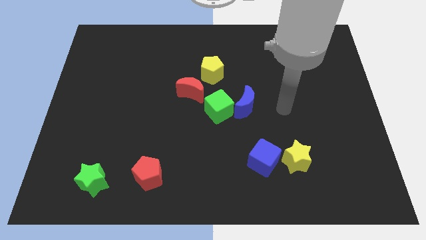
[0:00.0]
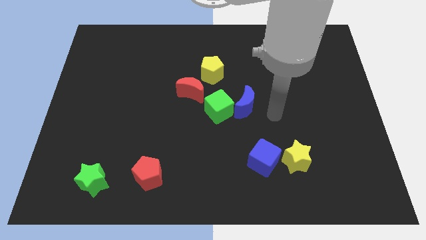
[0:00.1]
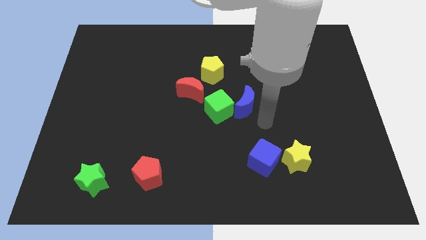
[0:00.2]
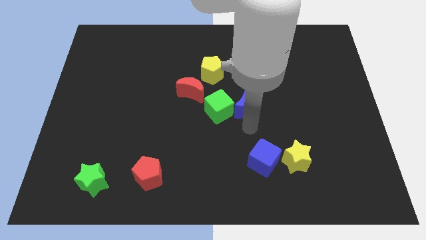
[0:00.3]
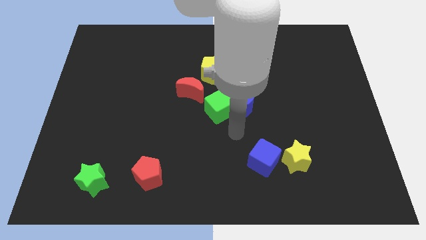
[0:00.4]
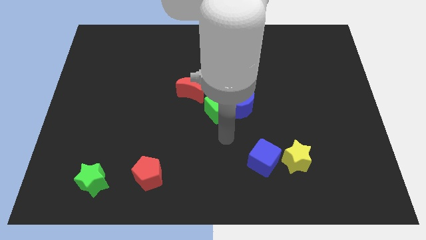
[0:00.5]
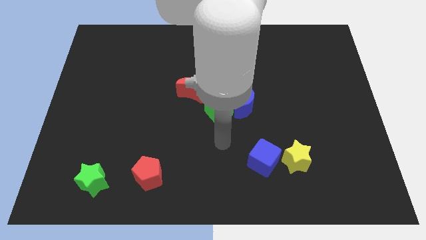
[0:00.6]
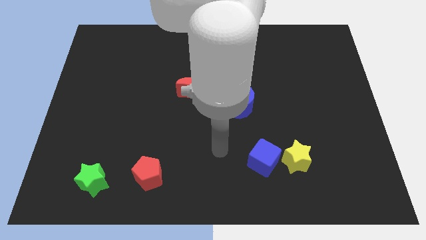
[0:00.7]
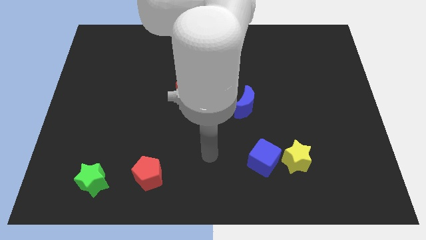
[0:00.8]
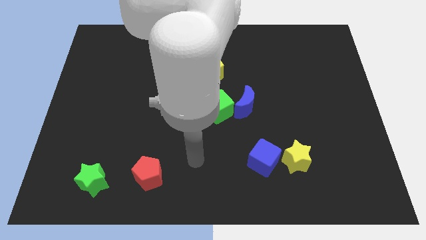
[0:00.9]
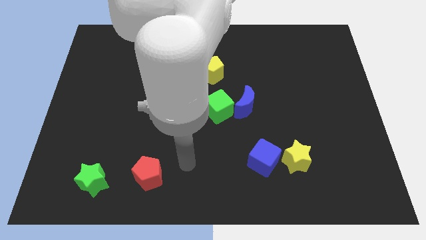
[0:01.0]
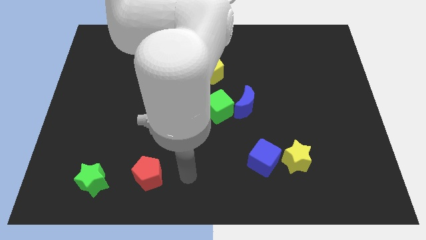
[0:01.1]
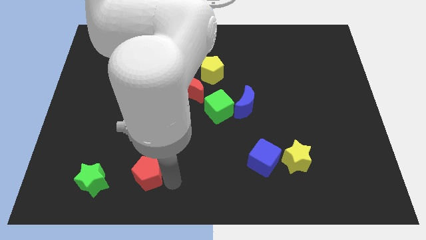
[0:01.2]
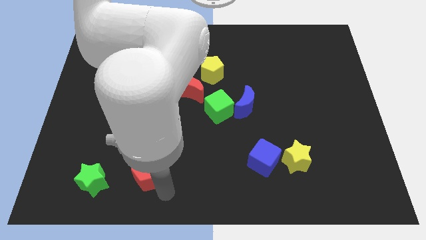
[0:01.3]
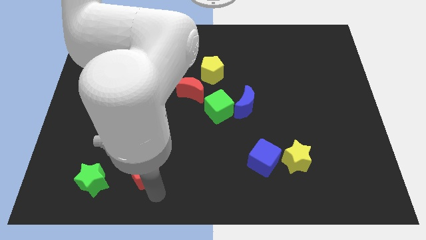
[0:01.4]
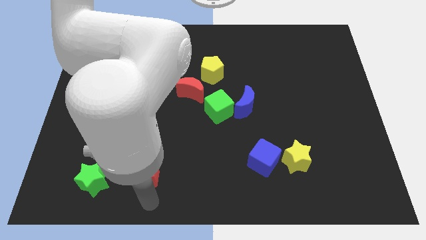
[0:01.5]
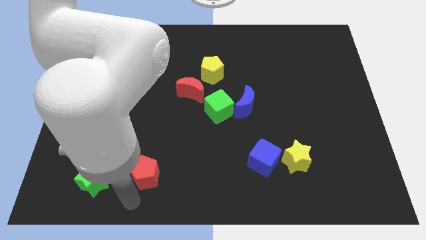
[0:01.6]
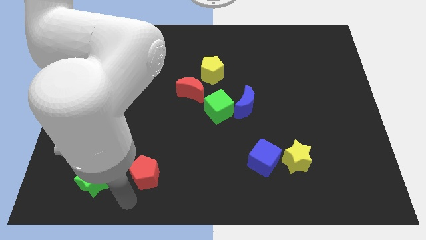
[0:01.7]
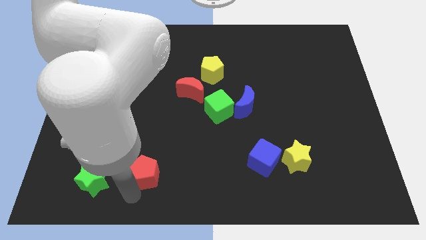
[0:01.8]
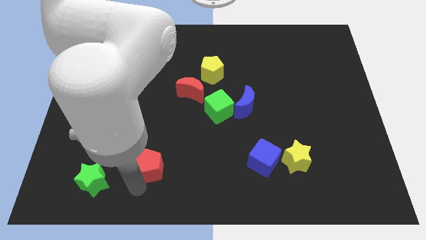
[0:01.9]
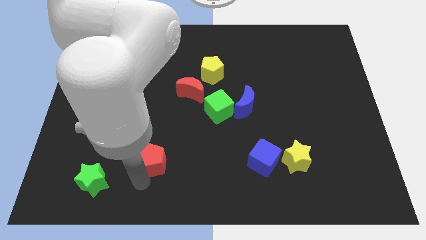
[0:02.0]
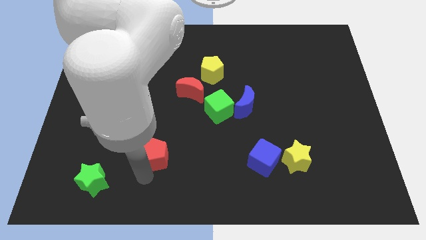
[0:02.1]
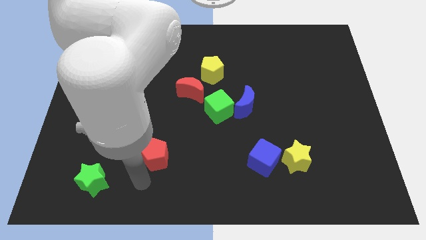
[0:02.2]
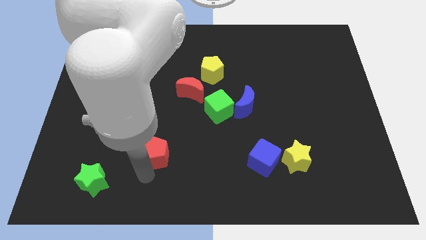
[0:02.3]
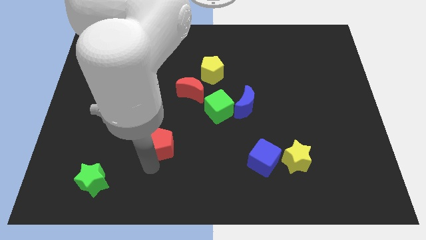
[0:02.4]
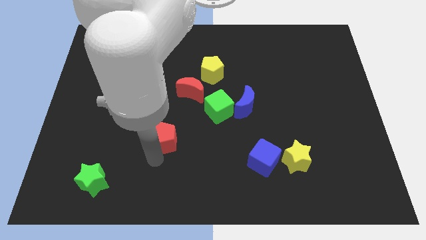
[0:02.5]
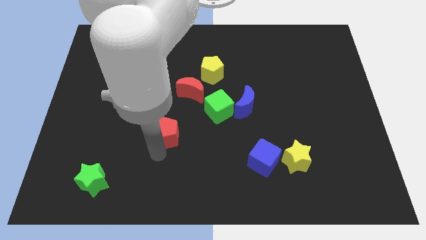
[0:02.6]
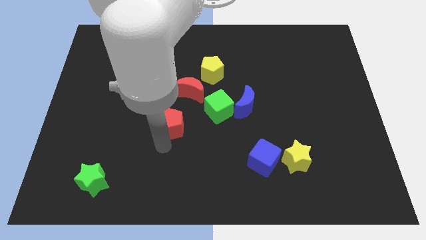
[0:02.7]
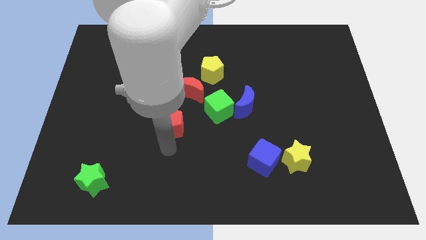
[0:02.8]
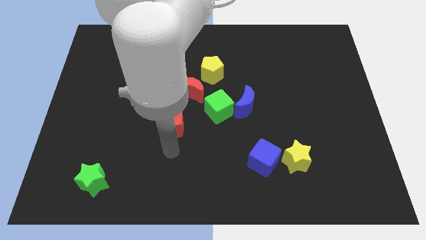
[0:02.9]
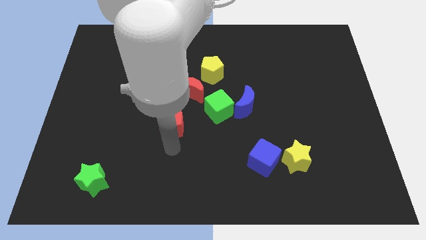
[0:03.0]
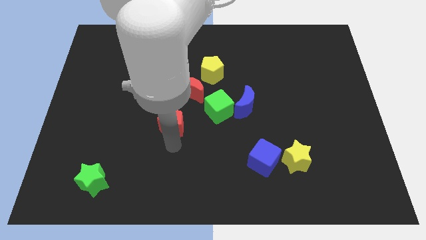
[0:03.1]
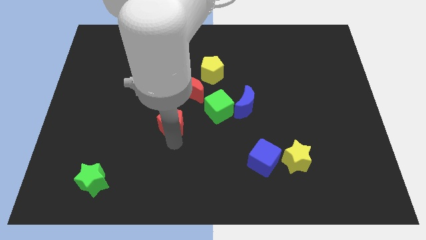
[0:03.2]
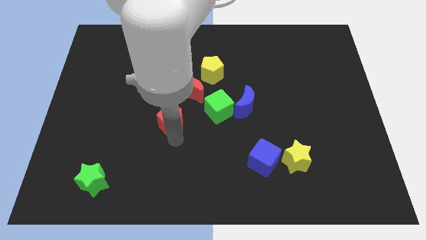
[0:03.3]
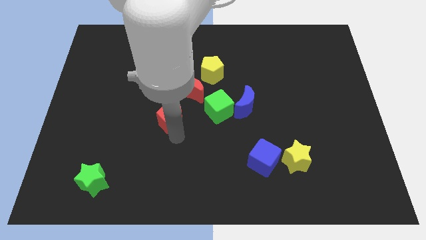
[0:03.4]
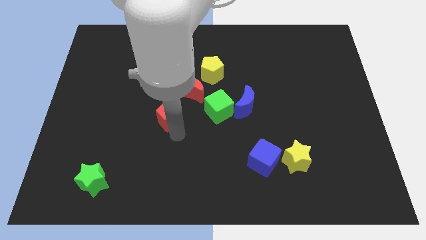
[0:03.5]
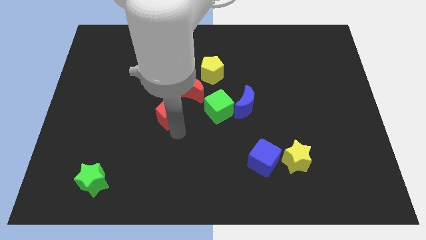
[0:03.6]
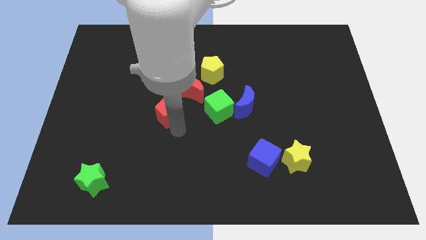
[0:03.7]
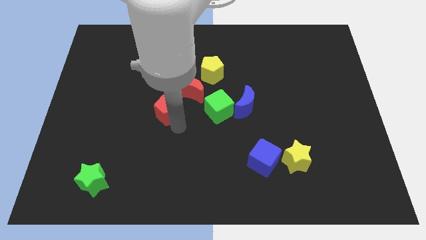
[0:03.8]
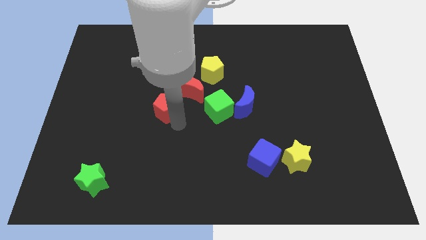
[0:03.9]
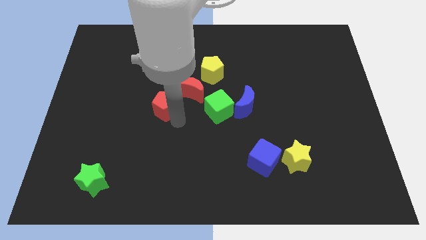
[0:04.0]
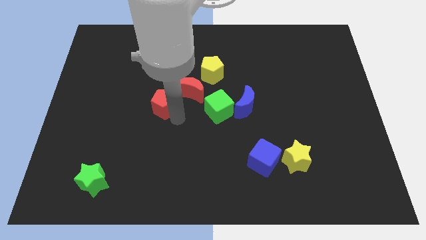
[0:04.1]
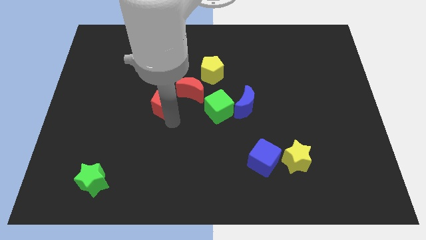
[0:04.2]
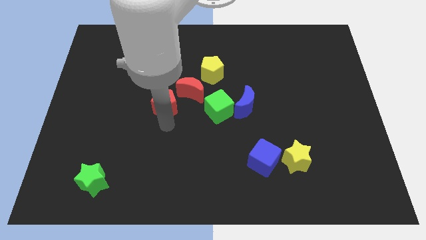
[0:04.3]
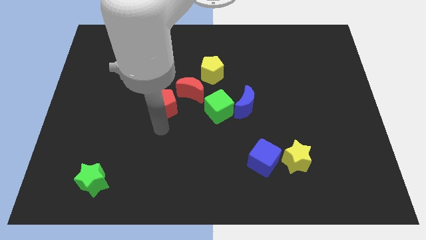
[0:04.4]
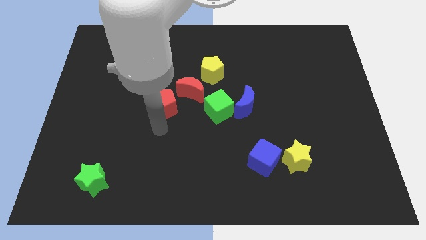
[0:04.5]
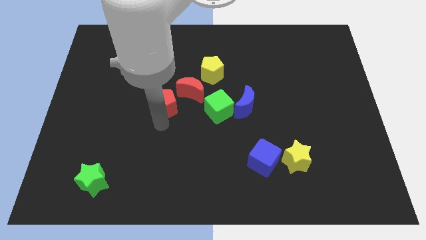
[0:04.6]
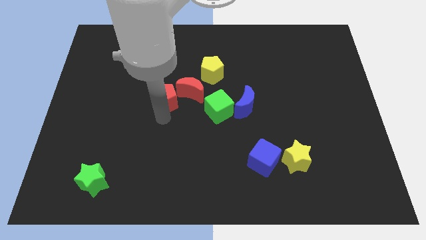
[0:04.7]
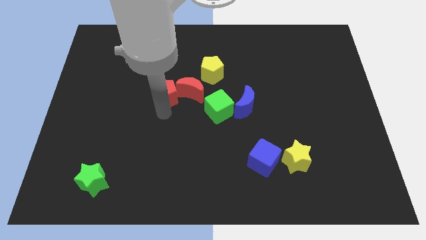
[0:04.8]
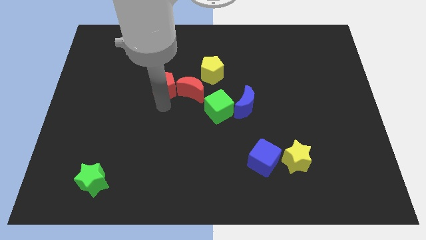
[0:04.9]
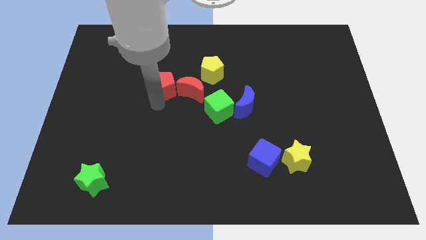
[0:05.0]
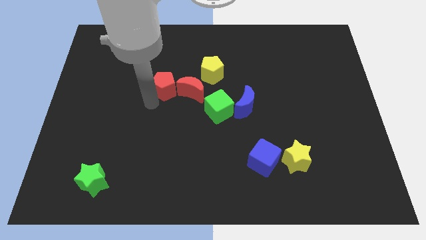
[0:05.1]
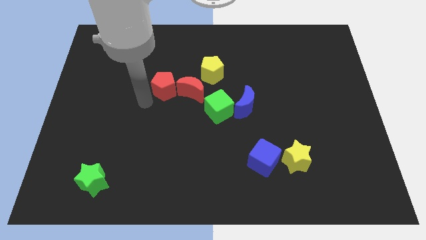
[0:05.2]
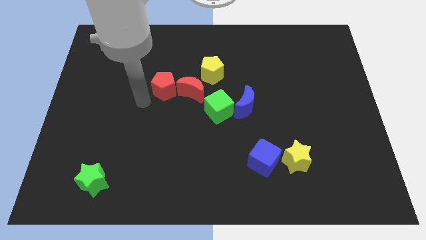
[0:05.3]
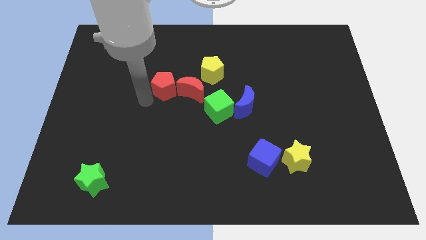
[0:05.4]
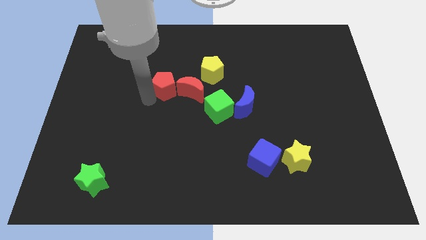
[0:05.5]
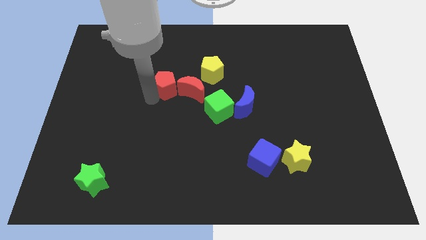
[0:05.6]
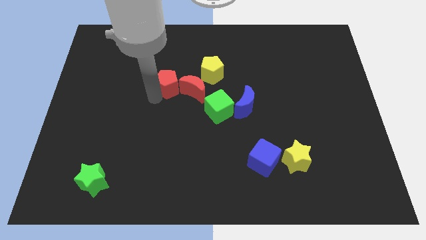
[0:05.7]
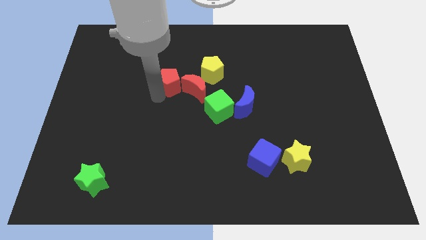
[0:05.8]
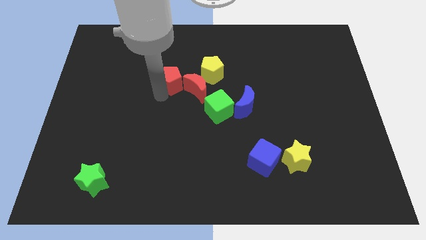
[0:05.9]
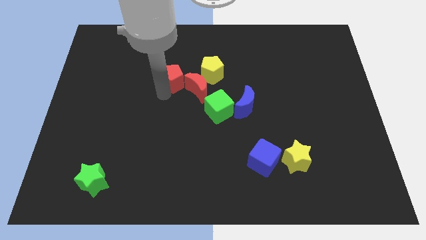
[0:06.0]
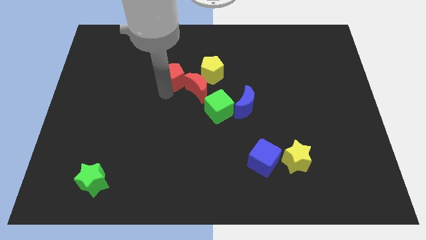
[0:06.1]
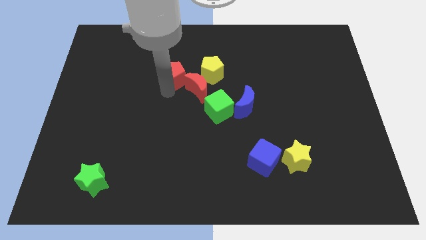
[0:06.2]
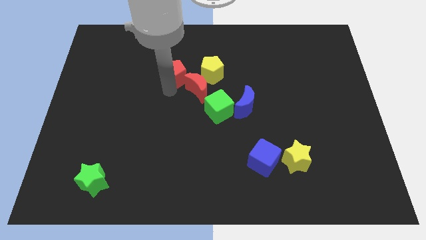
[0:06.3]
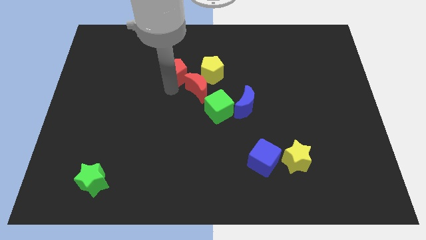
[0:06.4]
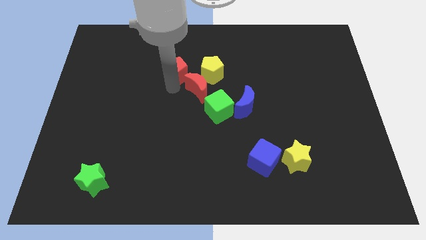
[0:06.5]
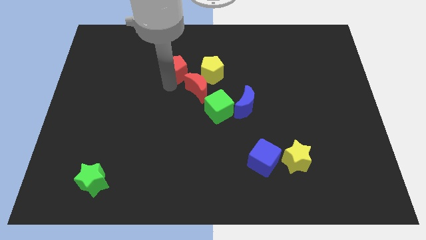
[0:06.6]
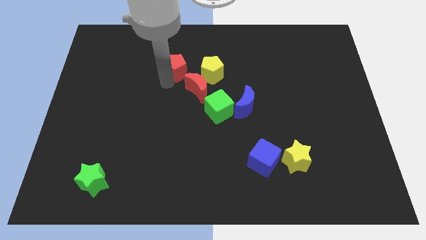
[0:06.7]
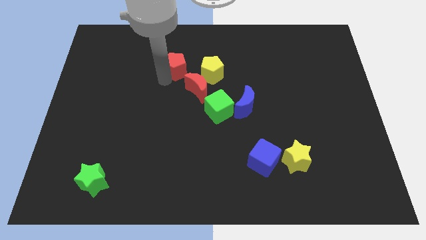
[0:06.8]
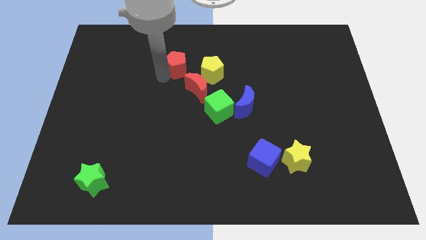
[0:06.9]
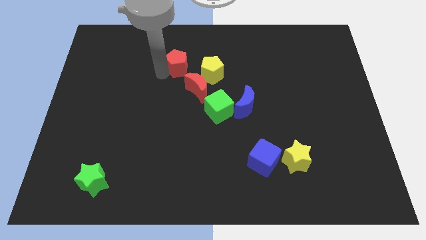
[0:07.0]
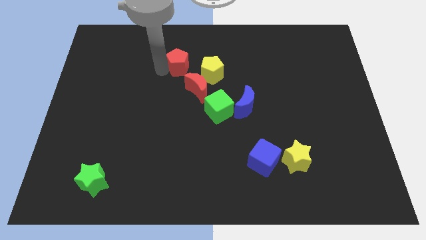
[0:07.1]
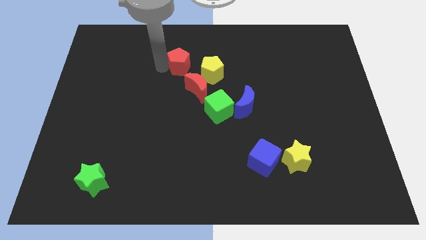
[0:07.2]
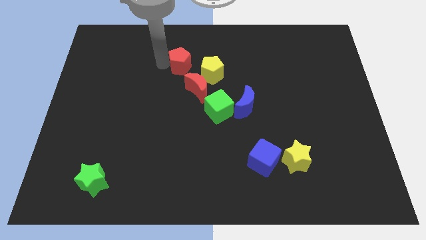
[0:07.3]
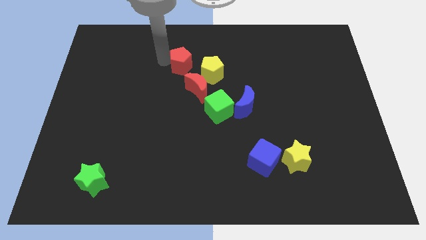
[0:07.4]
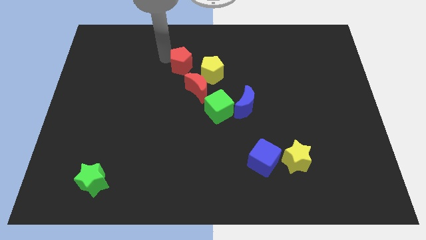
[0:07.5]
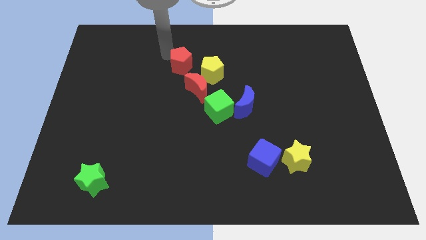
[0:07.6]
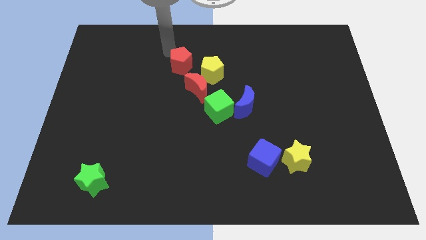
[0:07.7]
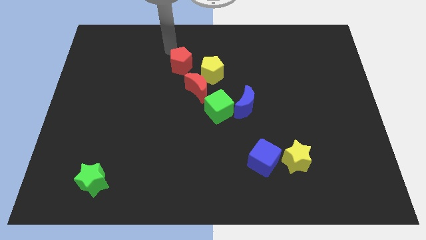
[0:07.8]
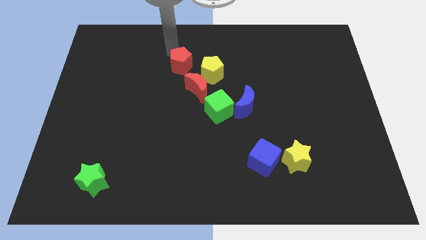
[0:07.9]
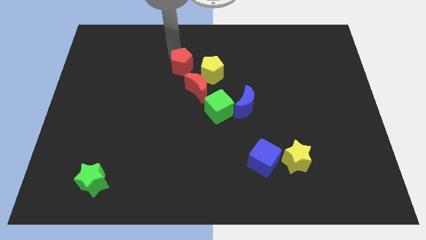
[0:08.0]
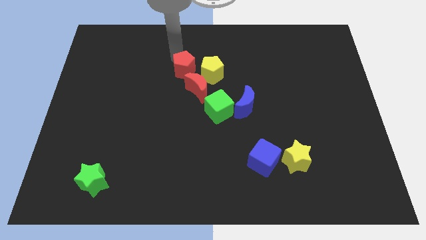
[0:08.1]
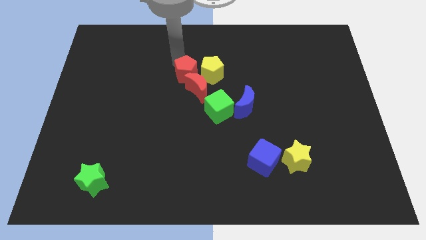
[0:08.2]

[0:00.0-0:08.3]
slide the red pentagon next to the yellow pentagon
